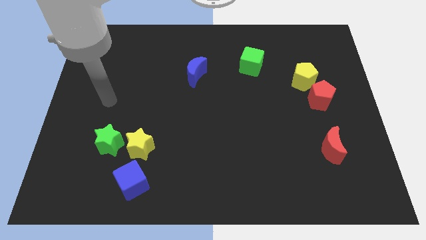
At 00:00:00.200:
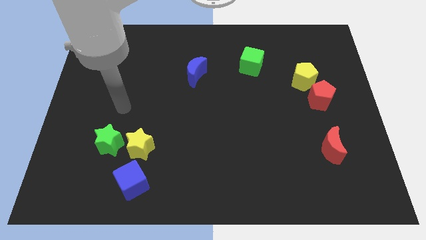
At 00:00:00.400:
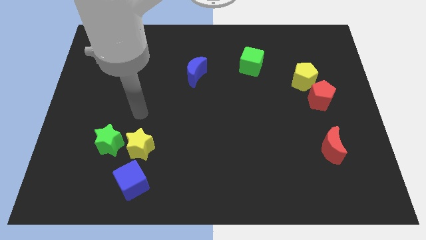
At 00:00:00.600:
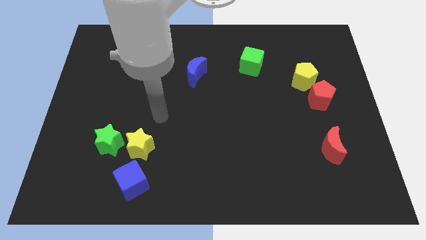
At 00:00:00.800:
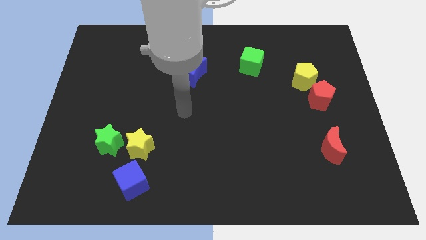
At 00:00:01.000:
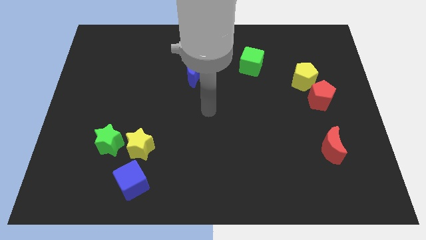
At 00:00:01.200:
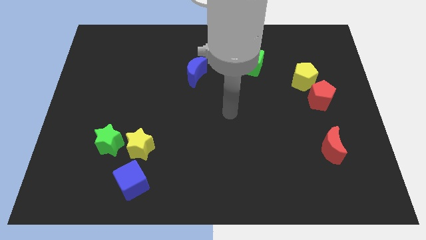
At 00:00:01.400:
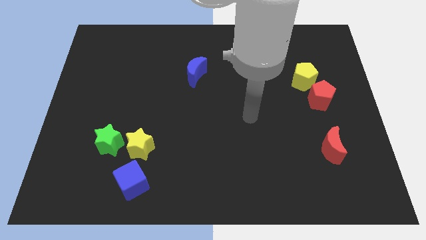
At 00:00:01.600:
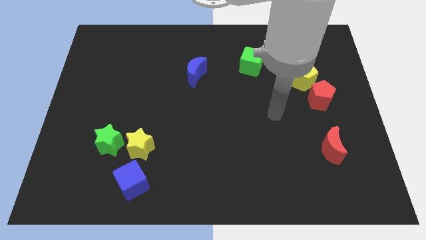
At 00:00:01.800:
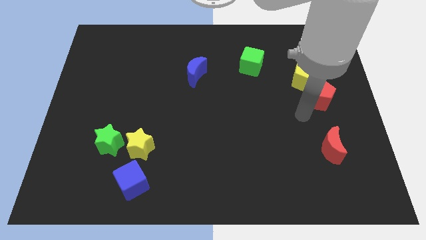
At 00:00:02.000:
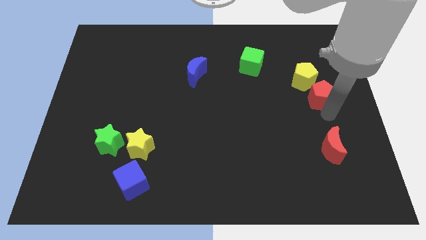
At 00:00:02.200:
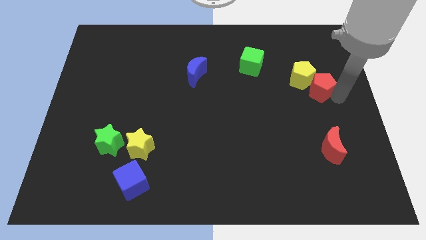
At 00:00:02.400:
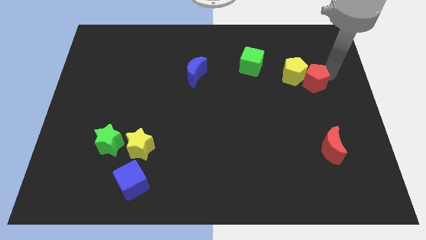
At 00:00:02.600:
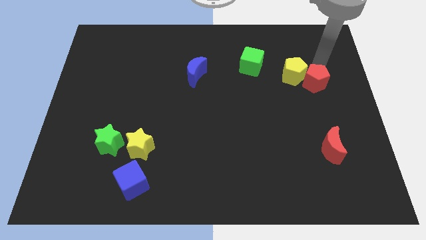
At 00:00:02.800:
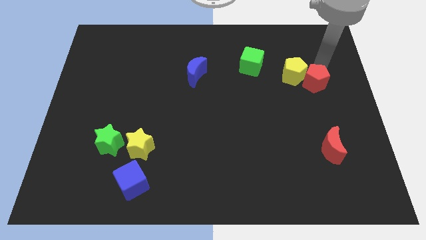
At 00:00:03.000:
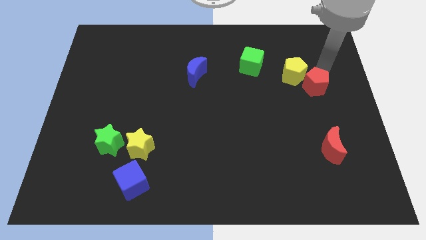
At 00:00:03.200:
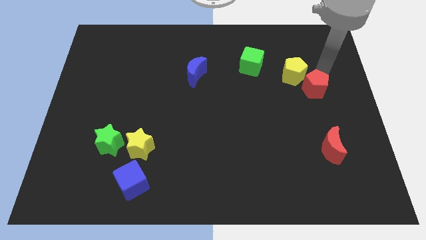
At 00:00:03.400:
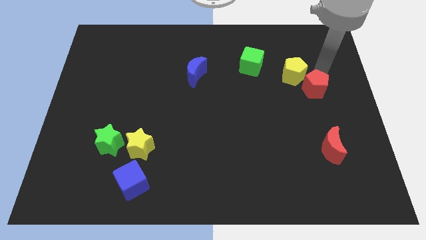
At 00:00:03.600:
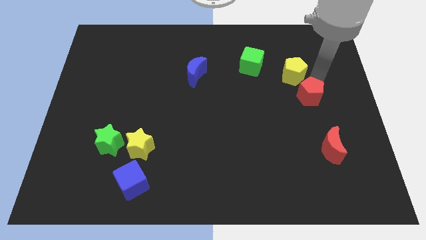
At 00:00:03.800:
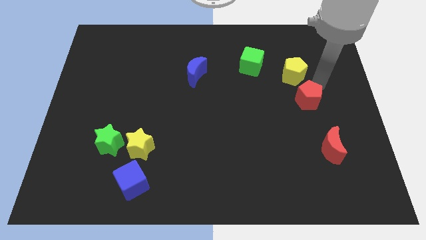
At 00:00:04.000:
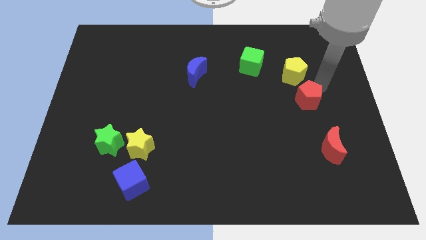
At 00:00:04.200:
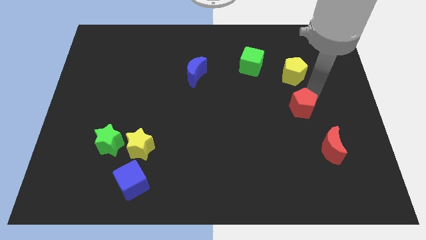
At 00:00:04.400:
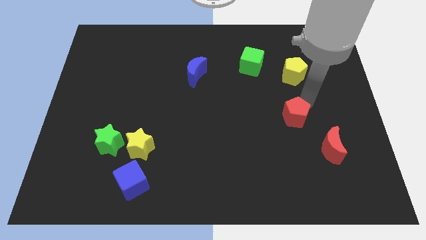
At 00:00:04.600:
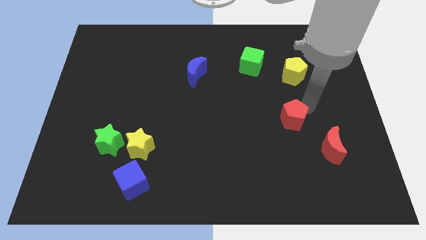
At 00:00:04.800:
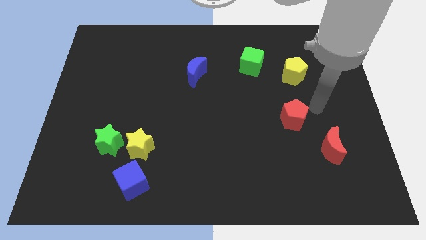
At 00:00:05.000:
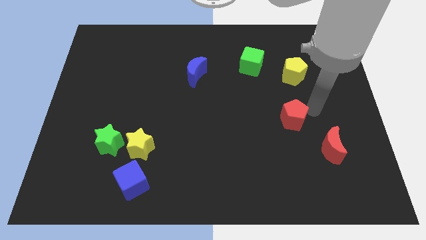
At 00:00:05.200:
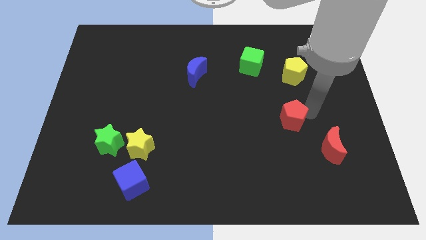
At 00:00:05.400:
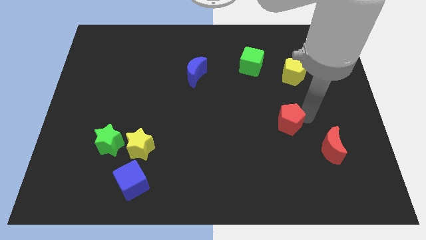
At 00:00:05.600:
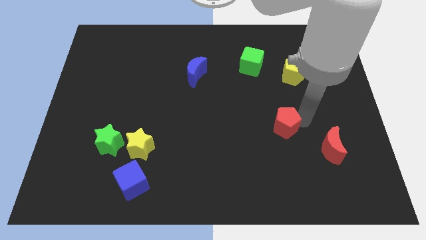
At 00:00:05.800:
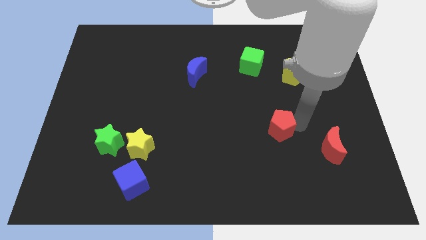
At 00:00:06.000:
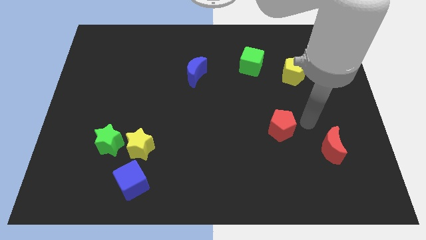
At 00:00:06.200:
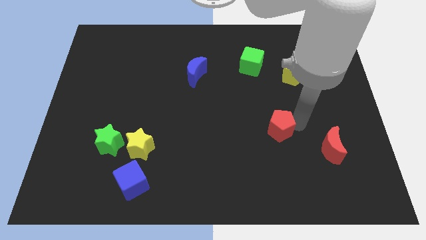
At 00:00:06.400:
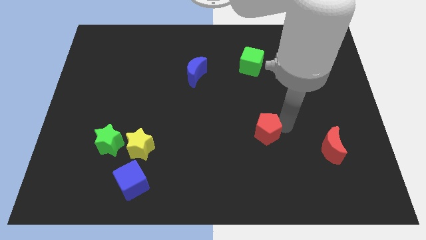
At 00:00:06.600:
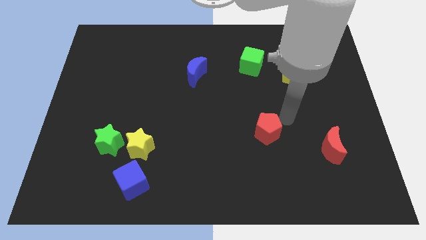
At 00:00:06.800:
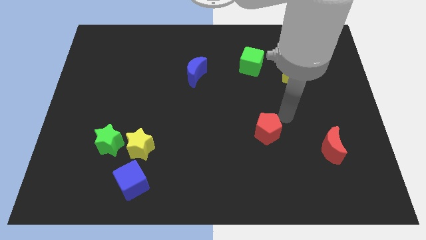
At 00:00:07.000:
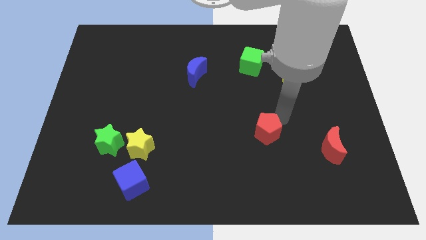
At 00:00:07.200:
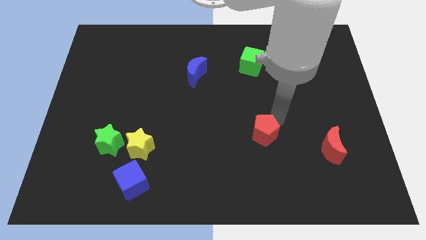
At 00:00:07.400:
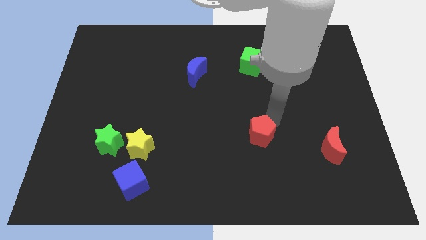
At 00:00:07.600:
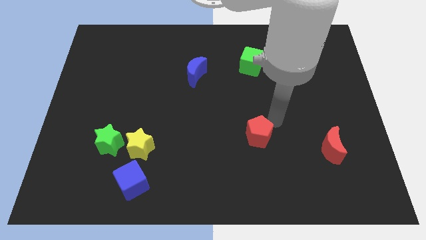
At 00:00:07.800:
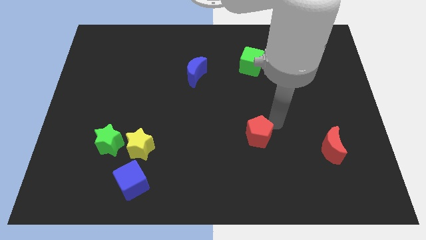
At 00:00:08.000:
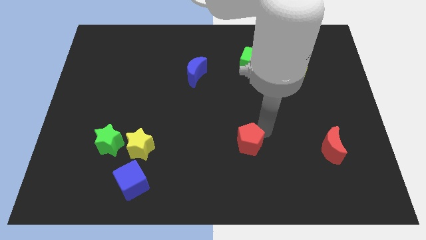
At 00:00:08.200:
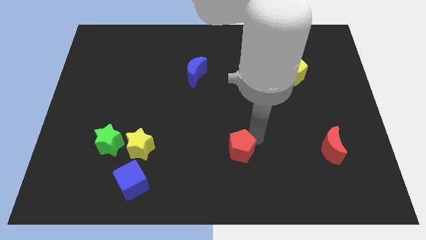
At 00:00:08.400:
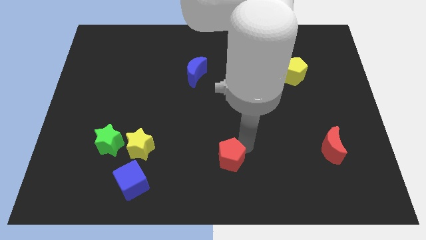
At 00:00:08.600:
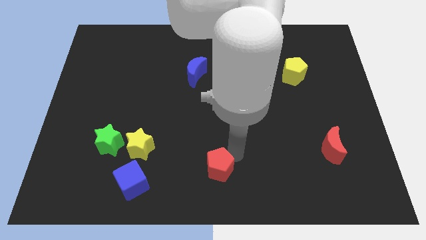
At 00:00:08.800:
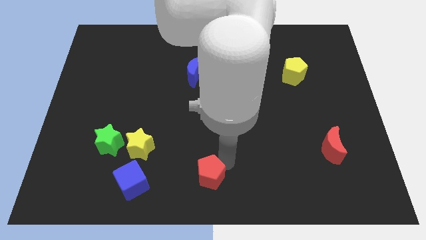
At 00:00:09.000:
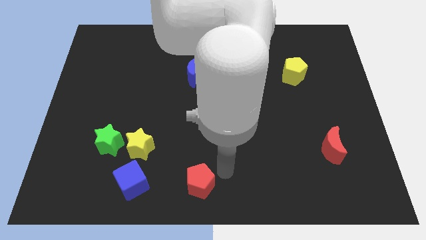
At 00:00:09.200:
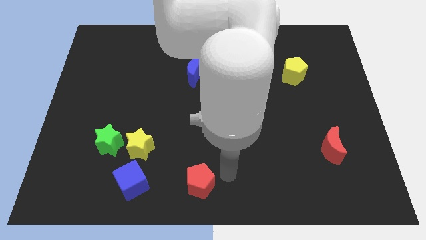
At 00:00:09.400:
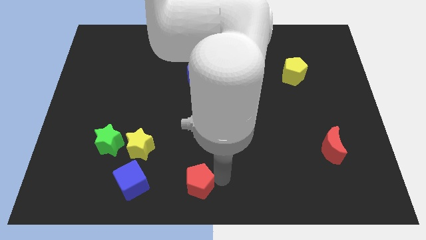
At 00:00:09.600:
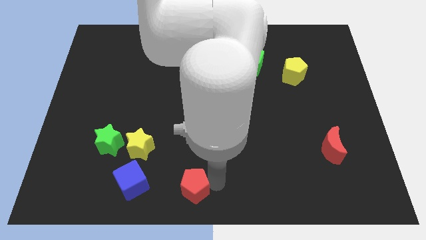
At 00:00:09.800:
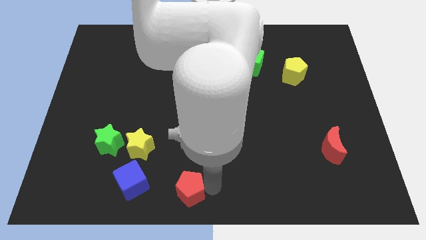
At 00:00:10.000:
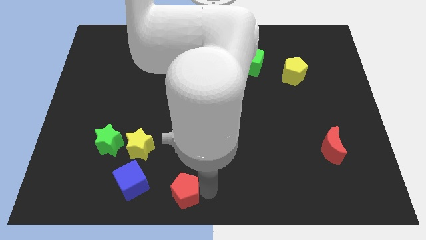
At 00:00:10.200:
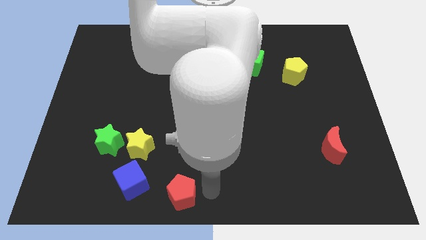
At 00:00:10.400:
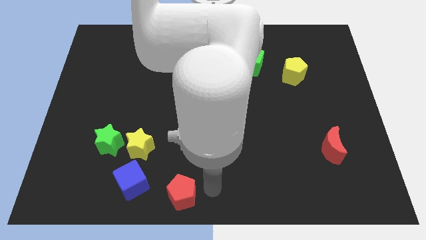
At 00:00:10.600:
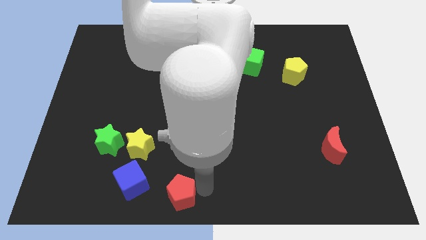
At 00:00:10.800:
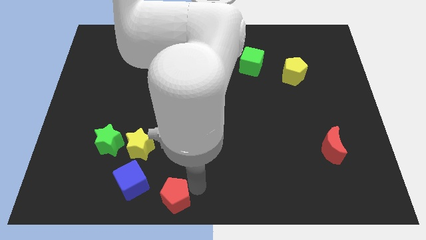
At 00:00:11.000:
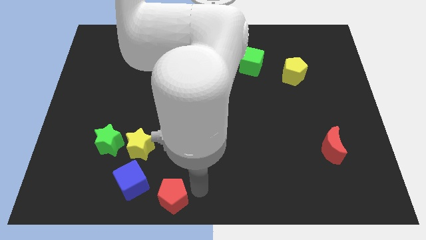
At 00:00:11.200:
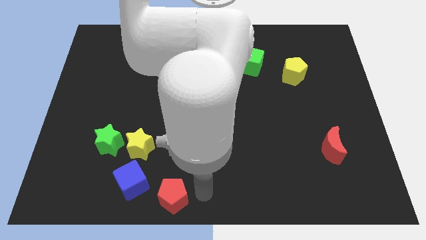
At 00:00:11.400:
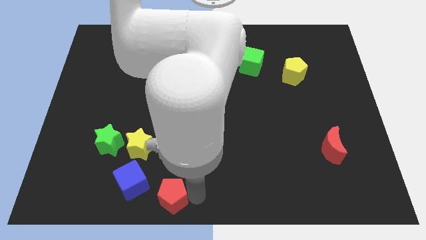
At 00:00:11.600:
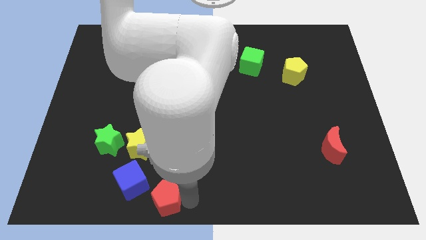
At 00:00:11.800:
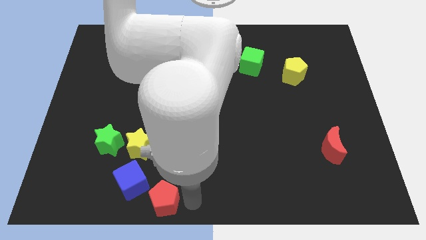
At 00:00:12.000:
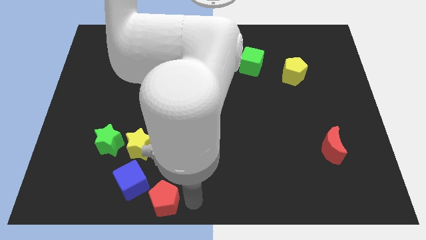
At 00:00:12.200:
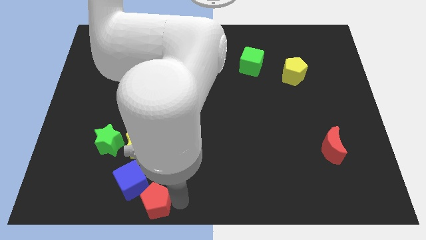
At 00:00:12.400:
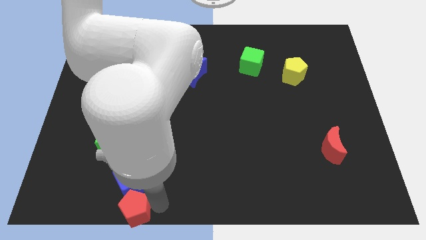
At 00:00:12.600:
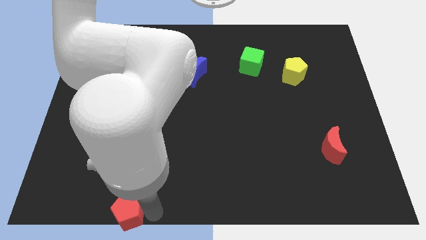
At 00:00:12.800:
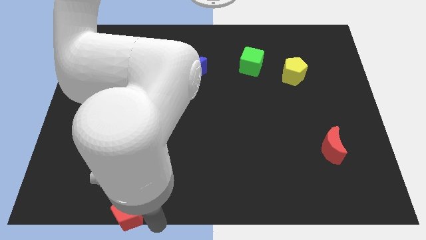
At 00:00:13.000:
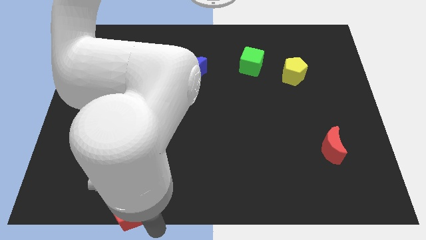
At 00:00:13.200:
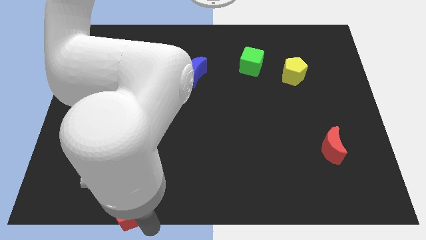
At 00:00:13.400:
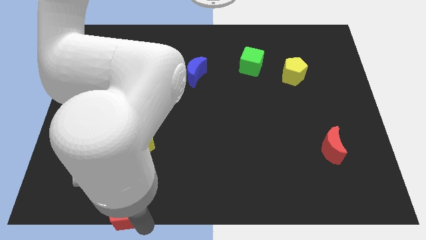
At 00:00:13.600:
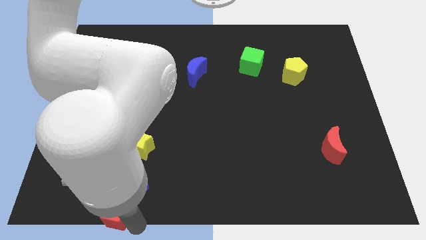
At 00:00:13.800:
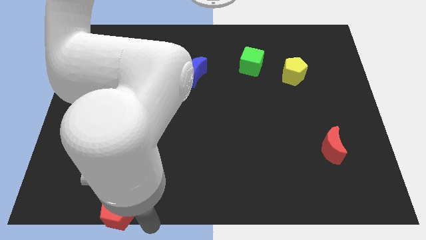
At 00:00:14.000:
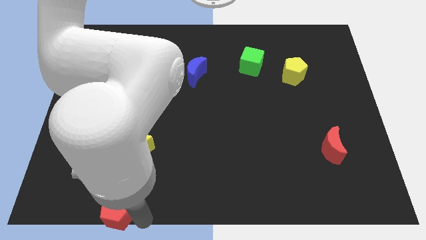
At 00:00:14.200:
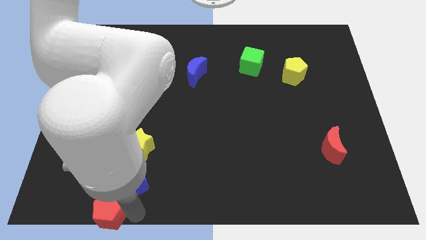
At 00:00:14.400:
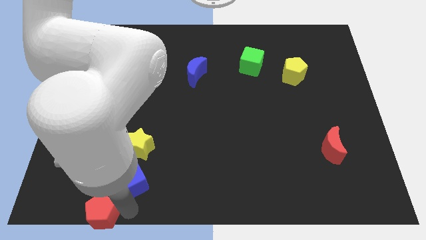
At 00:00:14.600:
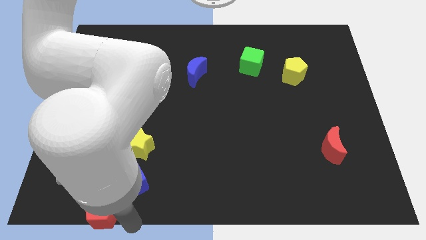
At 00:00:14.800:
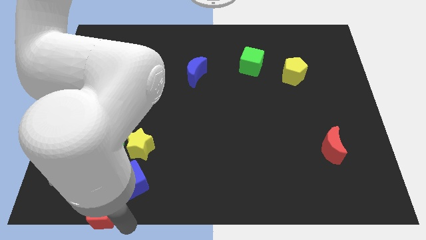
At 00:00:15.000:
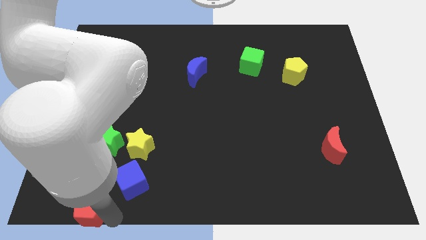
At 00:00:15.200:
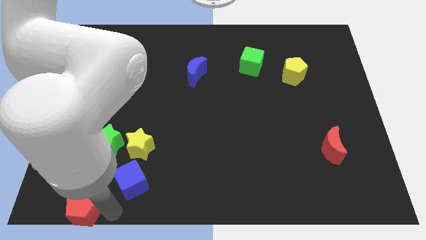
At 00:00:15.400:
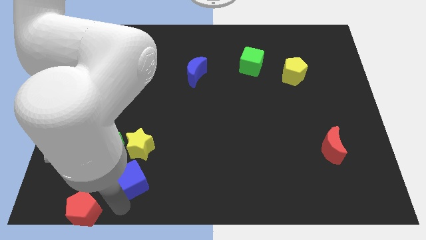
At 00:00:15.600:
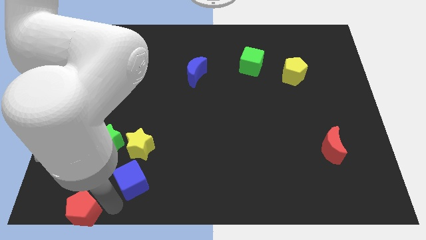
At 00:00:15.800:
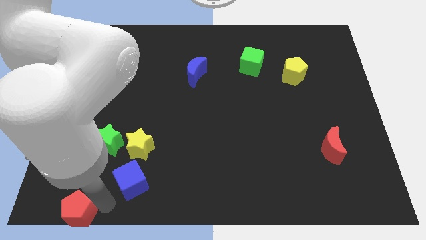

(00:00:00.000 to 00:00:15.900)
put the red pentagon to the lower left corner
